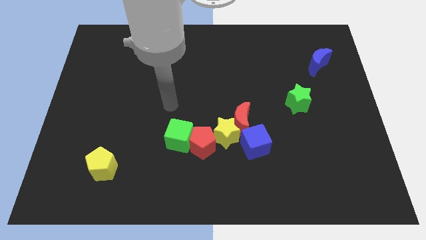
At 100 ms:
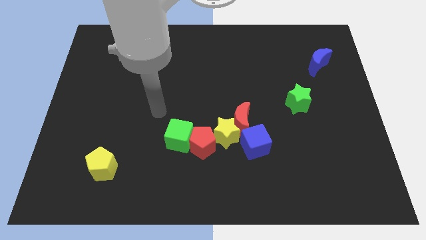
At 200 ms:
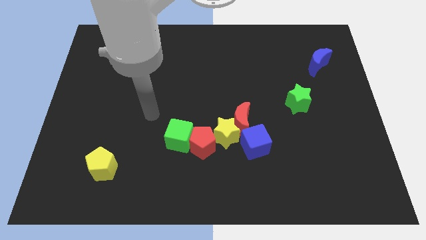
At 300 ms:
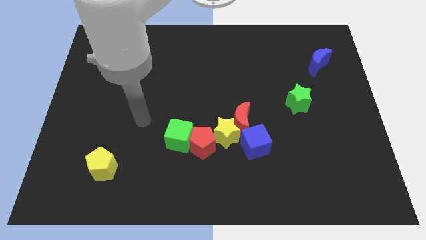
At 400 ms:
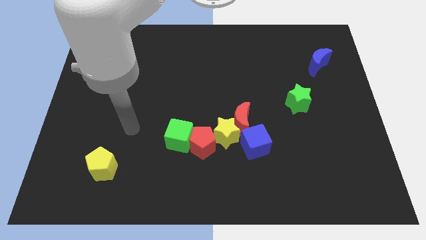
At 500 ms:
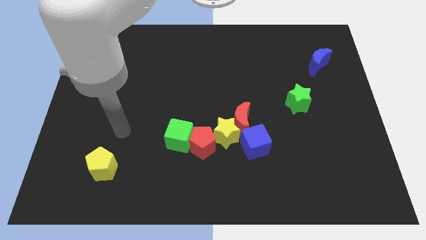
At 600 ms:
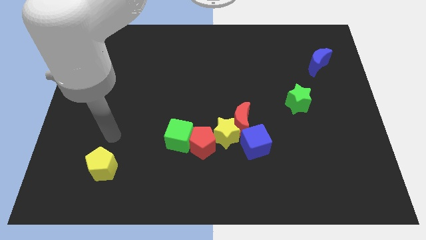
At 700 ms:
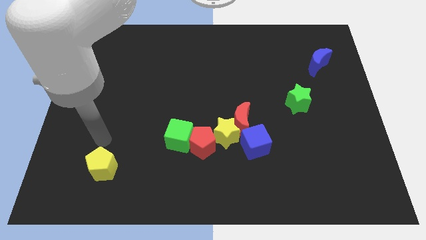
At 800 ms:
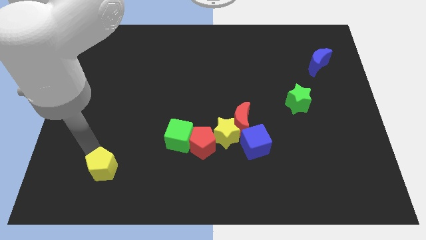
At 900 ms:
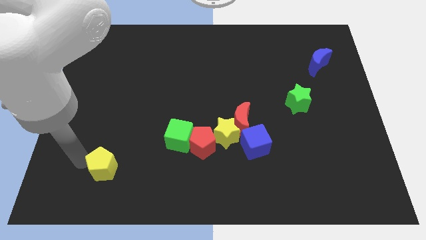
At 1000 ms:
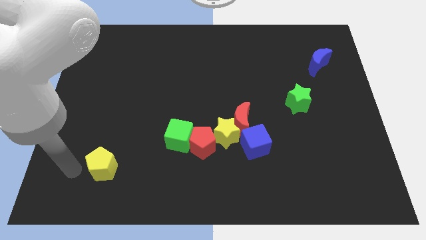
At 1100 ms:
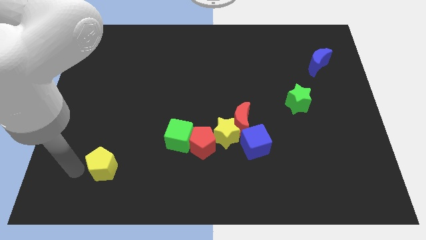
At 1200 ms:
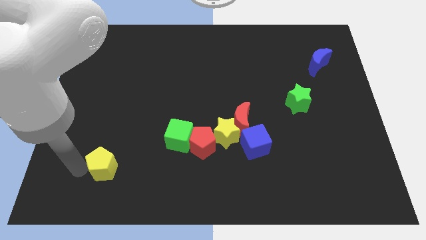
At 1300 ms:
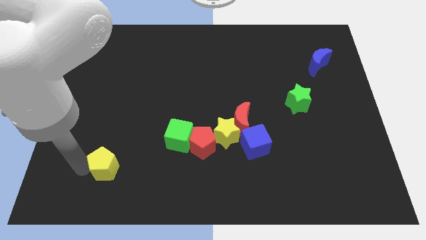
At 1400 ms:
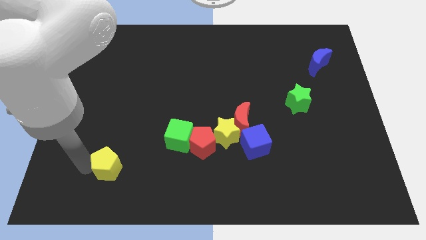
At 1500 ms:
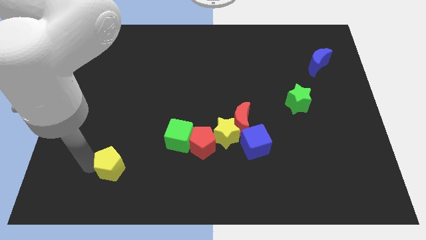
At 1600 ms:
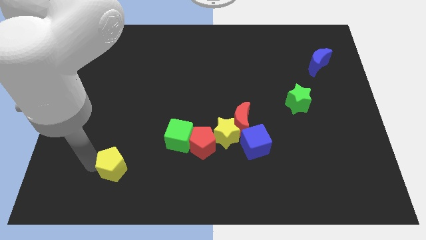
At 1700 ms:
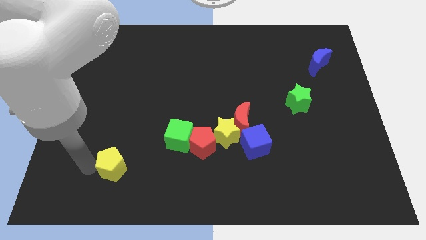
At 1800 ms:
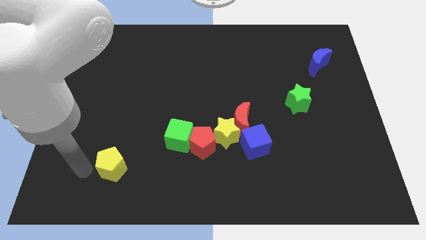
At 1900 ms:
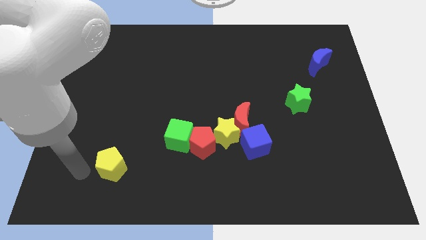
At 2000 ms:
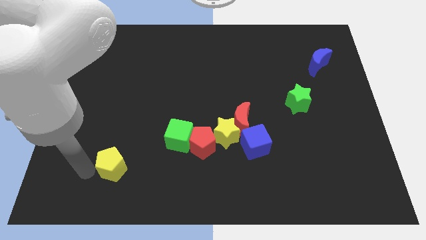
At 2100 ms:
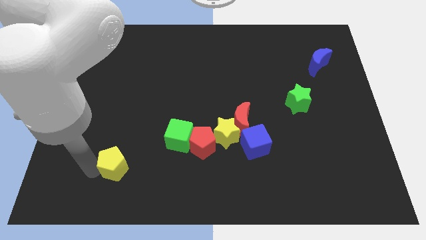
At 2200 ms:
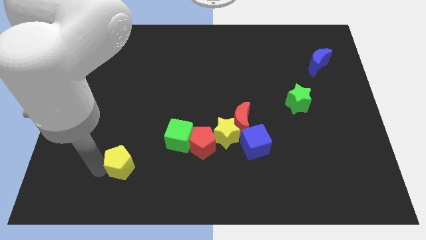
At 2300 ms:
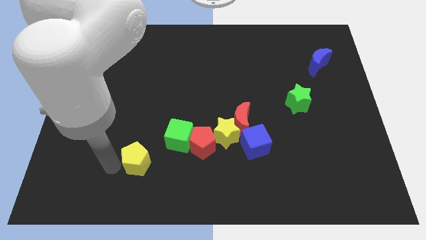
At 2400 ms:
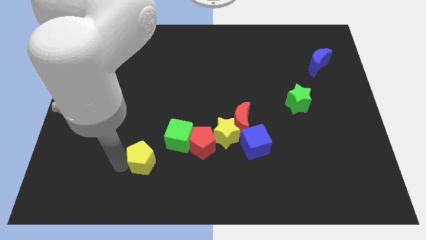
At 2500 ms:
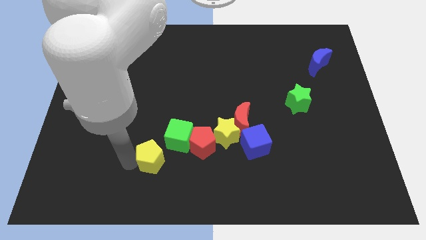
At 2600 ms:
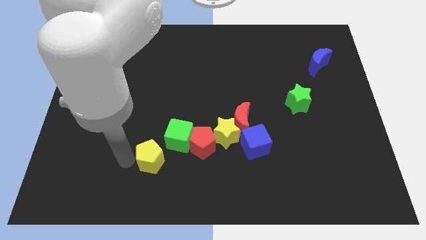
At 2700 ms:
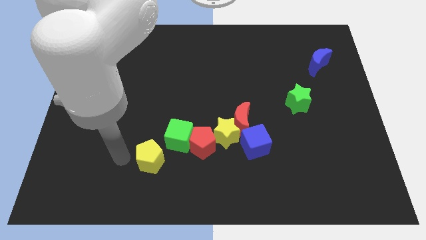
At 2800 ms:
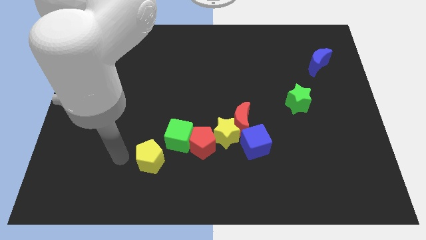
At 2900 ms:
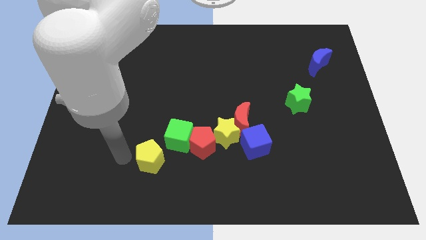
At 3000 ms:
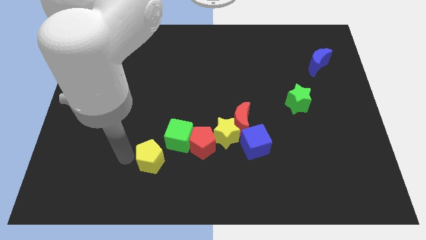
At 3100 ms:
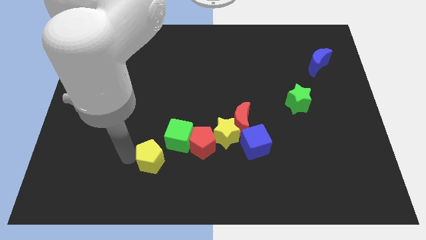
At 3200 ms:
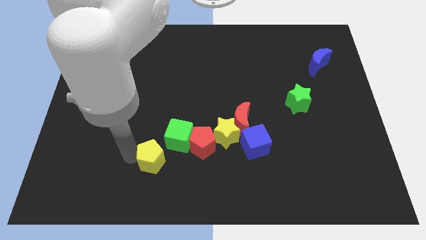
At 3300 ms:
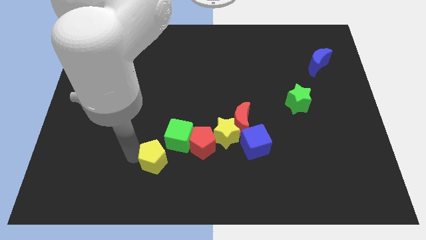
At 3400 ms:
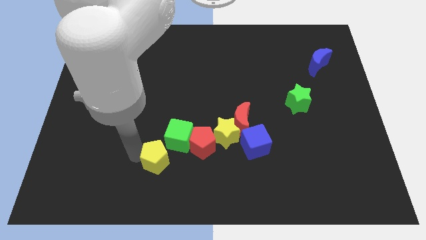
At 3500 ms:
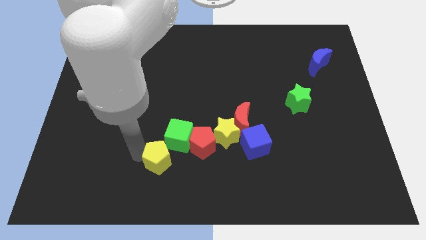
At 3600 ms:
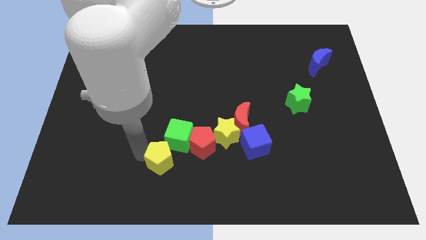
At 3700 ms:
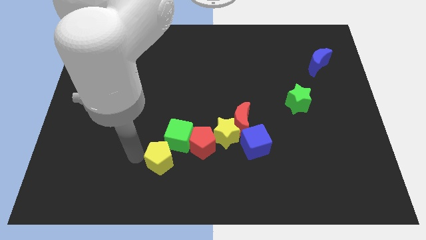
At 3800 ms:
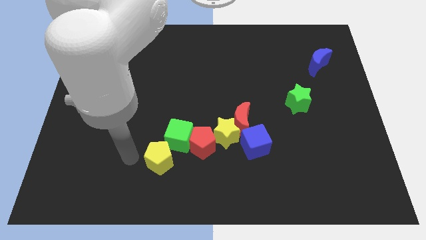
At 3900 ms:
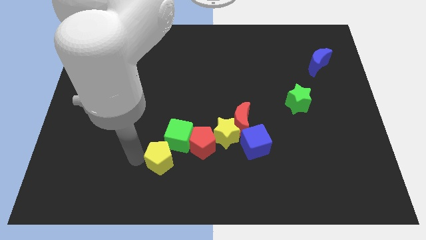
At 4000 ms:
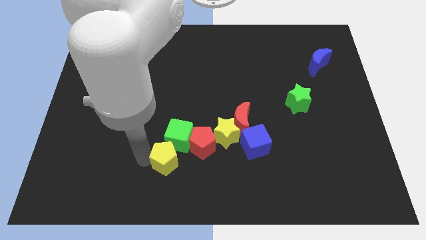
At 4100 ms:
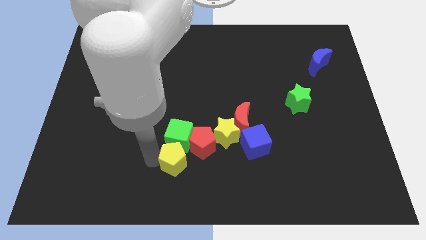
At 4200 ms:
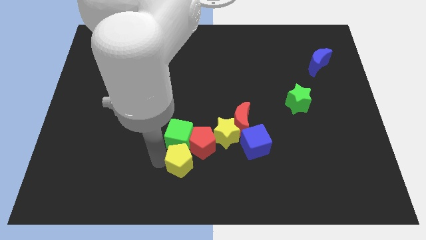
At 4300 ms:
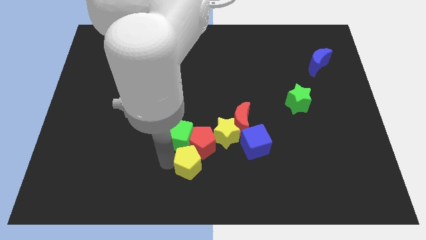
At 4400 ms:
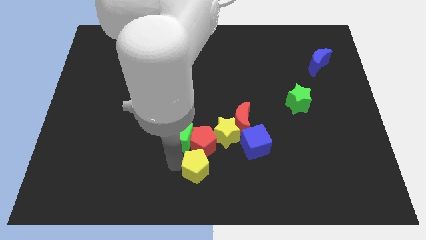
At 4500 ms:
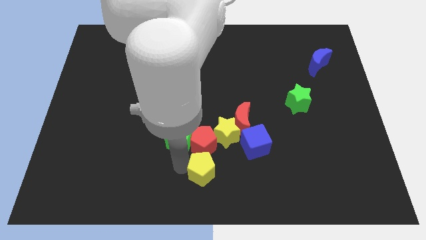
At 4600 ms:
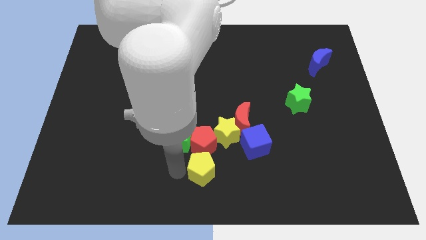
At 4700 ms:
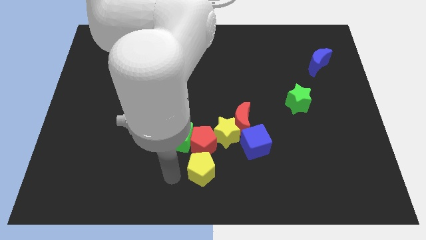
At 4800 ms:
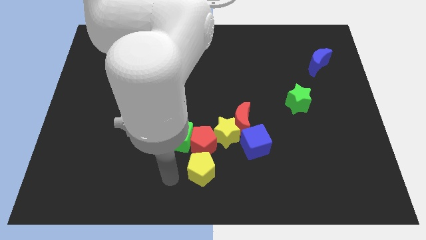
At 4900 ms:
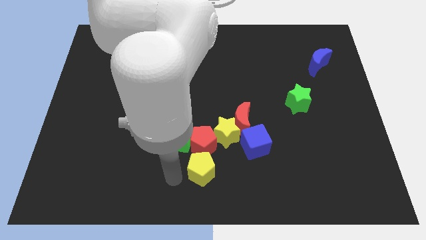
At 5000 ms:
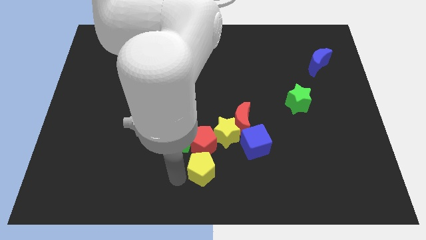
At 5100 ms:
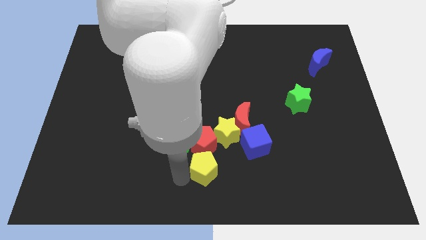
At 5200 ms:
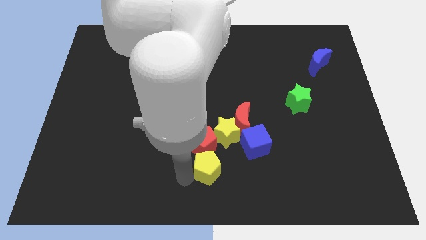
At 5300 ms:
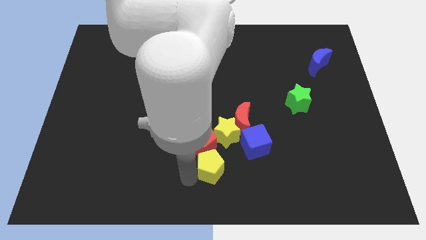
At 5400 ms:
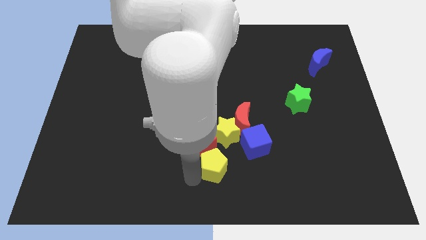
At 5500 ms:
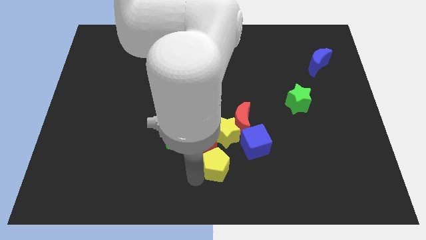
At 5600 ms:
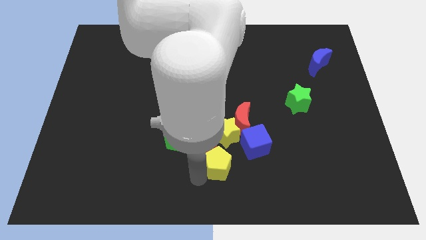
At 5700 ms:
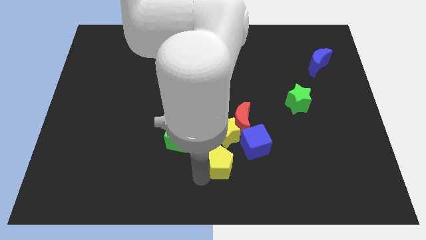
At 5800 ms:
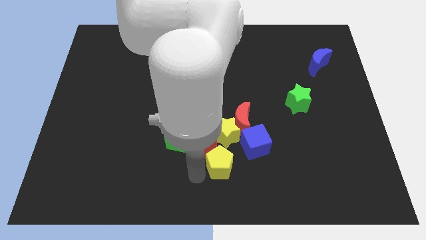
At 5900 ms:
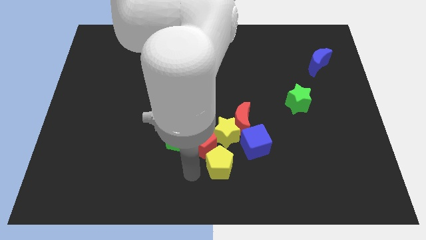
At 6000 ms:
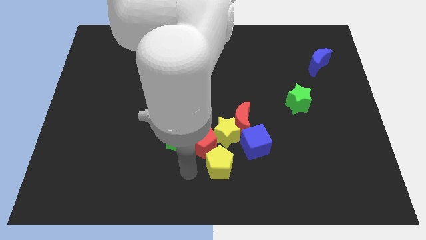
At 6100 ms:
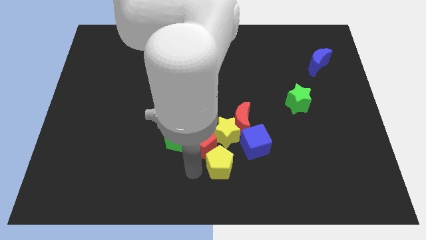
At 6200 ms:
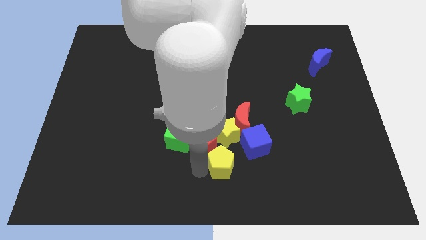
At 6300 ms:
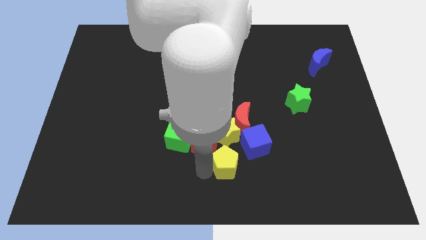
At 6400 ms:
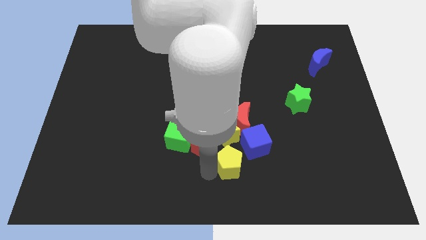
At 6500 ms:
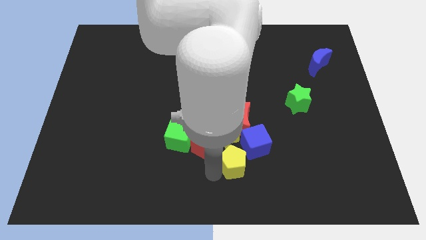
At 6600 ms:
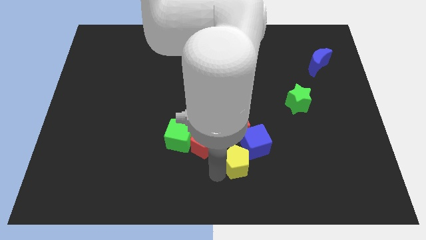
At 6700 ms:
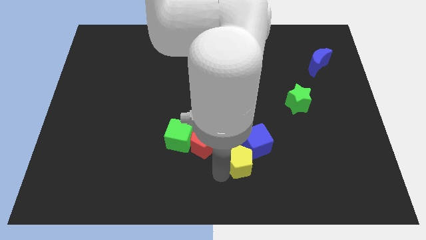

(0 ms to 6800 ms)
push the yellow pentagon towards the blue cube

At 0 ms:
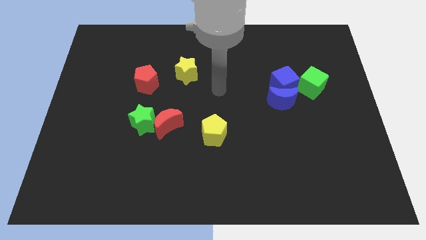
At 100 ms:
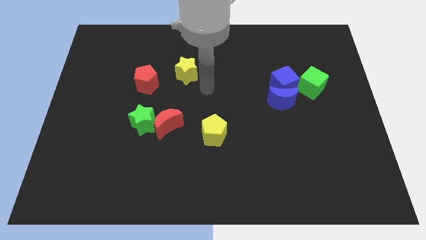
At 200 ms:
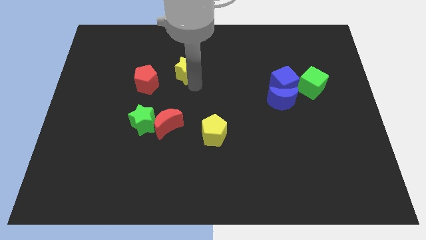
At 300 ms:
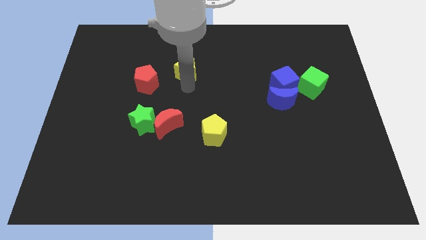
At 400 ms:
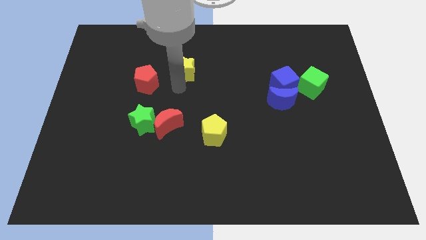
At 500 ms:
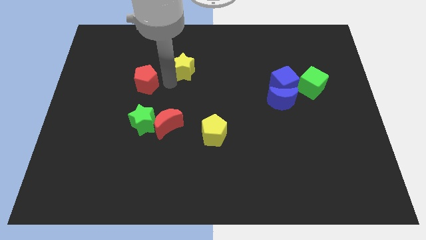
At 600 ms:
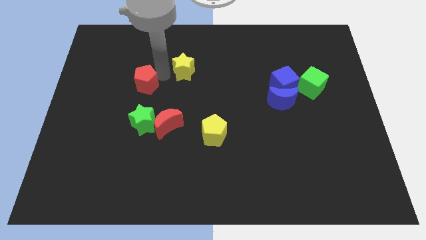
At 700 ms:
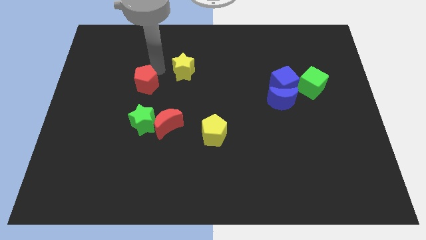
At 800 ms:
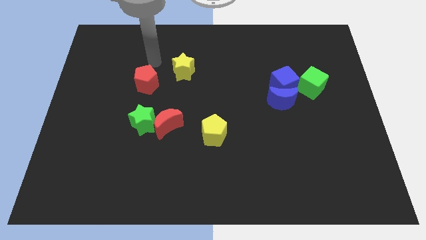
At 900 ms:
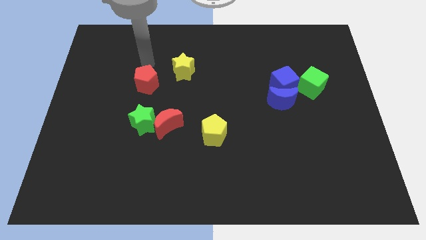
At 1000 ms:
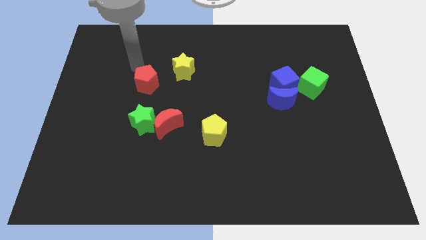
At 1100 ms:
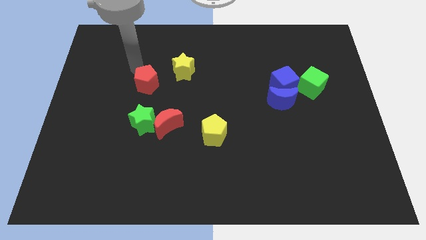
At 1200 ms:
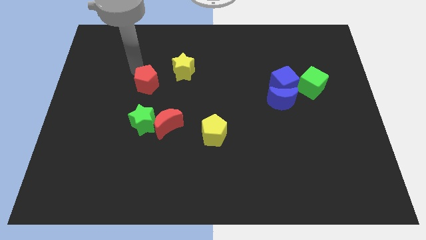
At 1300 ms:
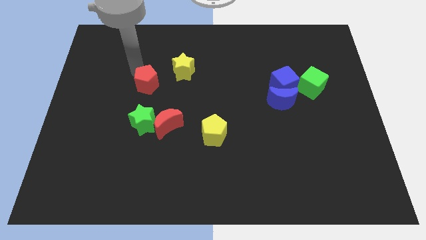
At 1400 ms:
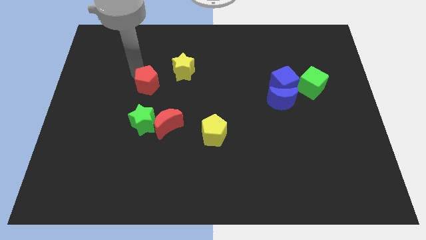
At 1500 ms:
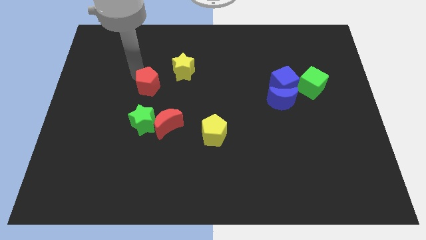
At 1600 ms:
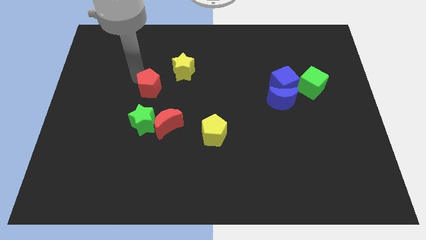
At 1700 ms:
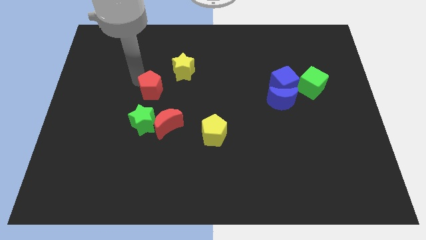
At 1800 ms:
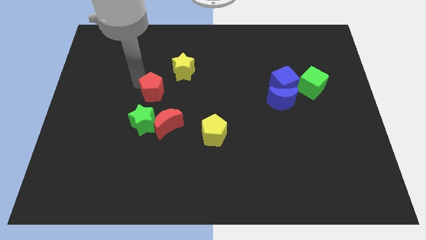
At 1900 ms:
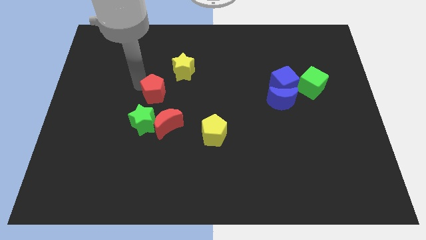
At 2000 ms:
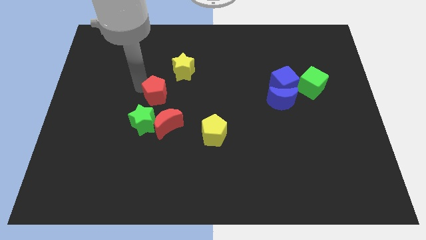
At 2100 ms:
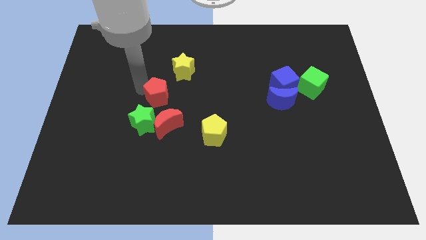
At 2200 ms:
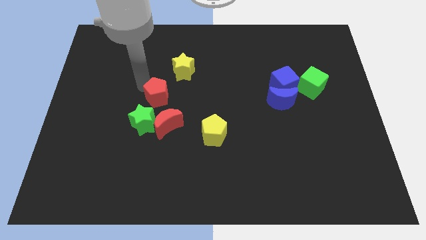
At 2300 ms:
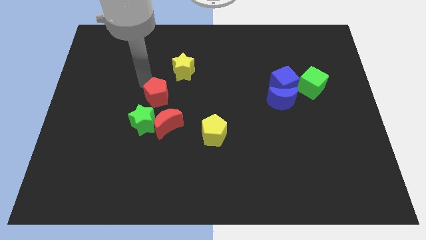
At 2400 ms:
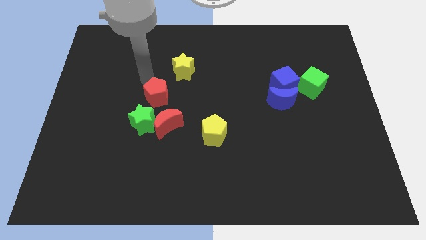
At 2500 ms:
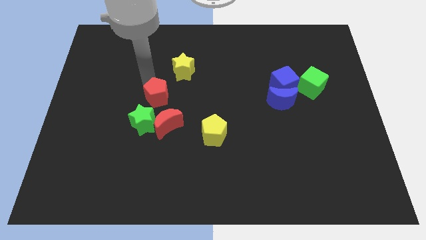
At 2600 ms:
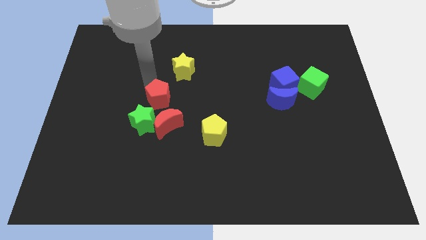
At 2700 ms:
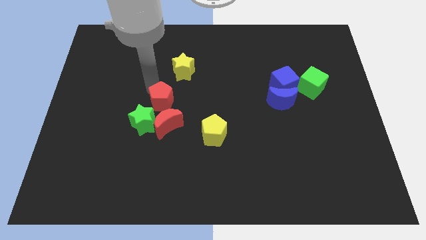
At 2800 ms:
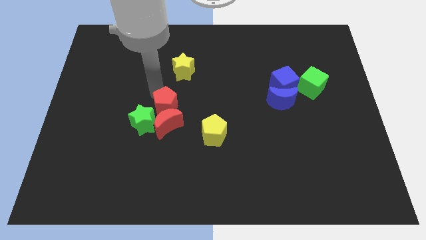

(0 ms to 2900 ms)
push the red pentagon towards the red moon
